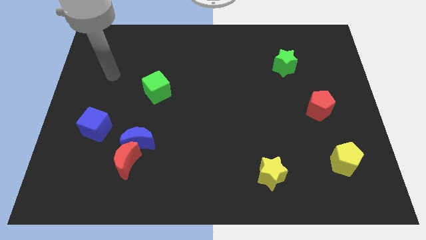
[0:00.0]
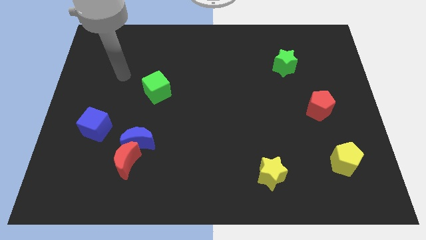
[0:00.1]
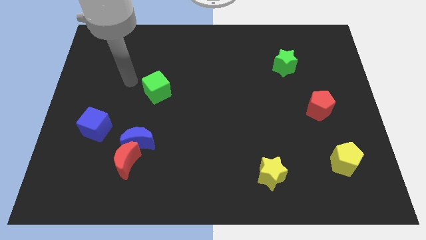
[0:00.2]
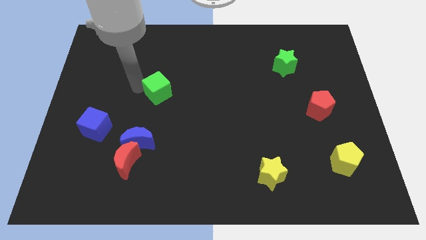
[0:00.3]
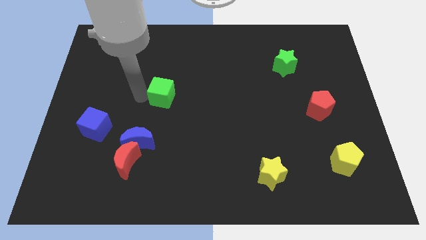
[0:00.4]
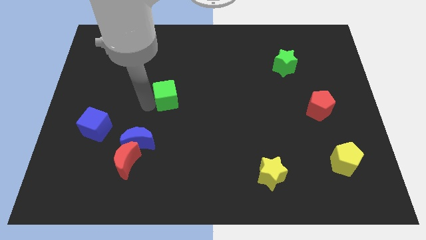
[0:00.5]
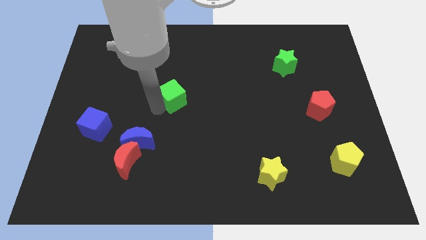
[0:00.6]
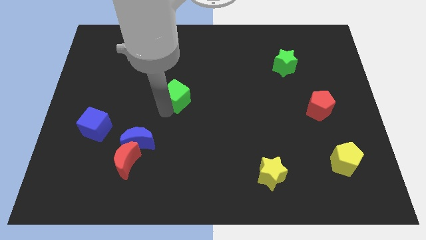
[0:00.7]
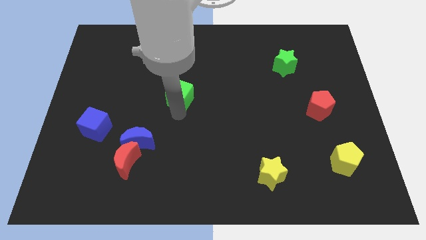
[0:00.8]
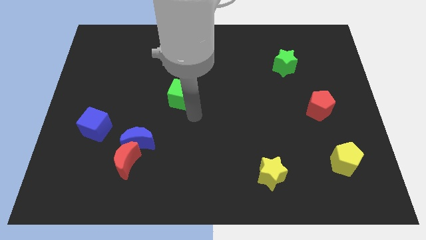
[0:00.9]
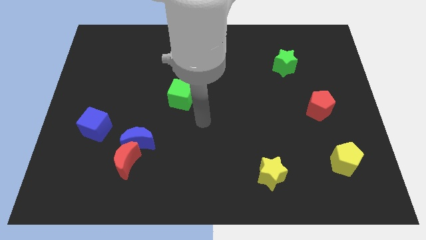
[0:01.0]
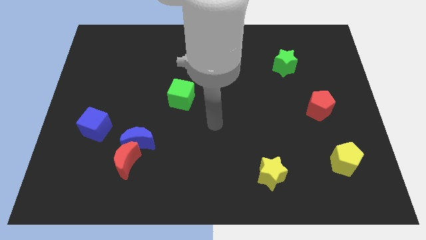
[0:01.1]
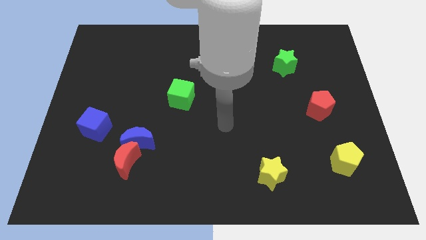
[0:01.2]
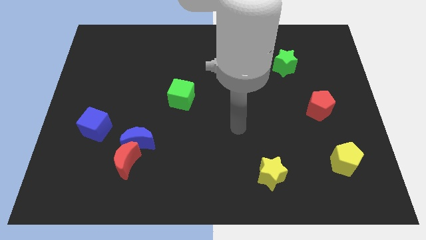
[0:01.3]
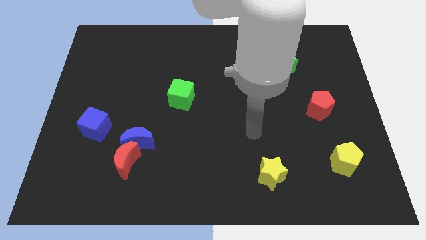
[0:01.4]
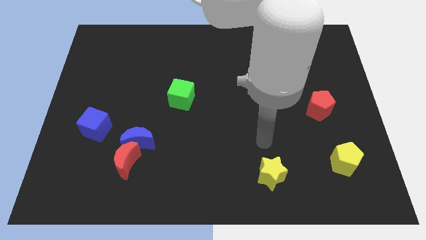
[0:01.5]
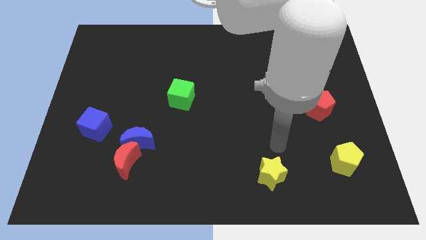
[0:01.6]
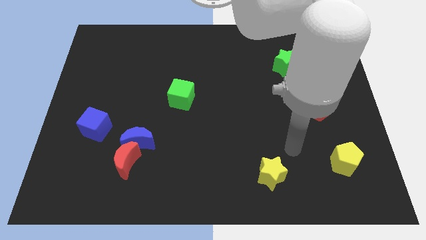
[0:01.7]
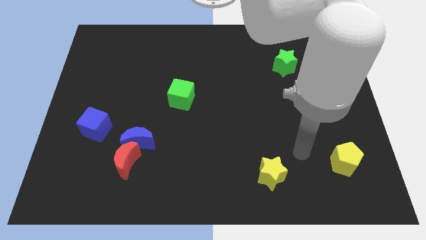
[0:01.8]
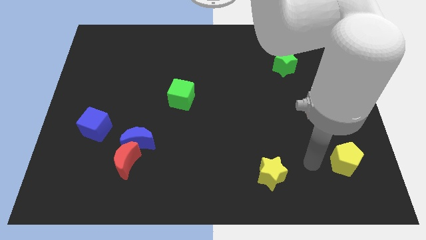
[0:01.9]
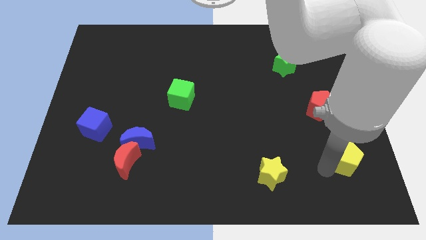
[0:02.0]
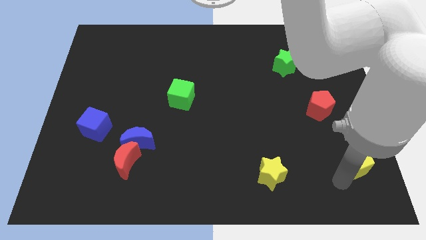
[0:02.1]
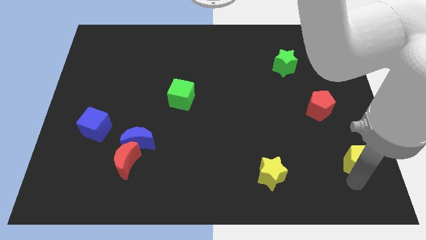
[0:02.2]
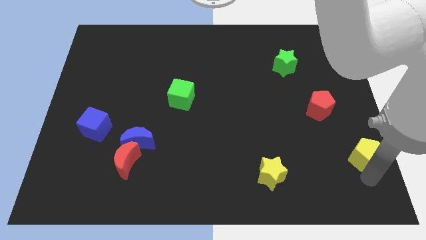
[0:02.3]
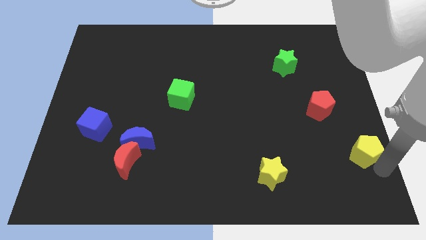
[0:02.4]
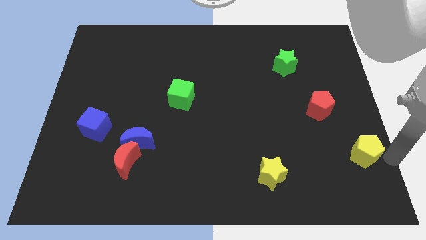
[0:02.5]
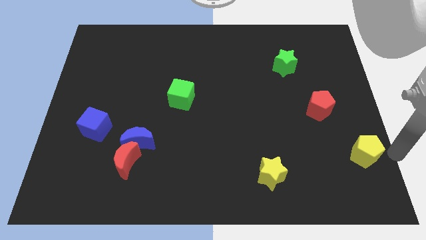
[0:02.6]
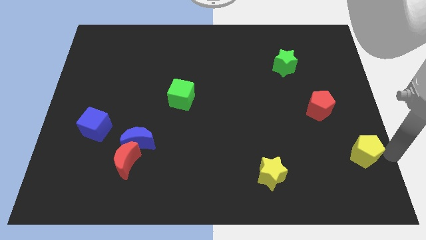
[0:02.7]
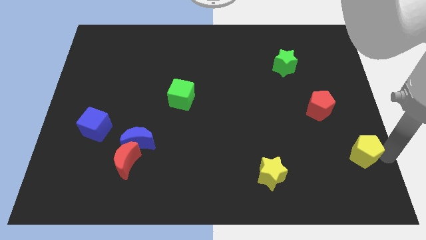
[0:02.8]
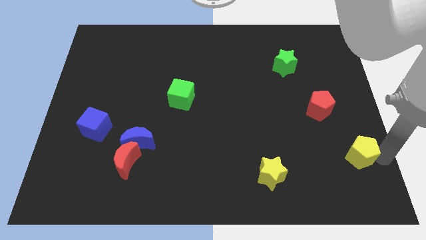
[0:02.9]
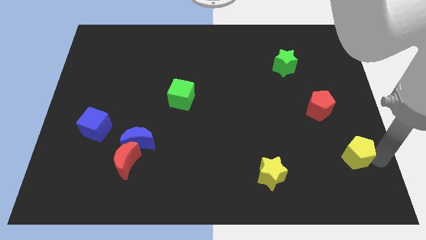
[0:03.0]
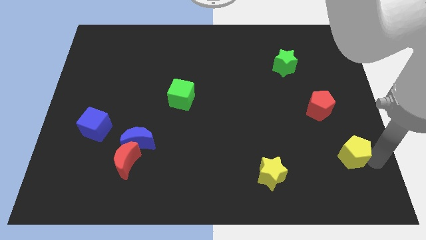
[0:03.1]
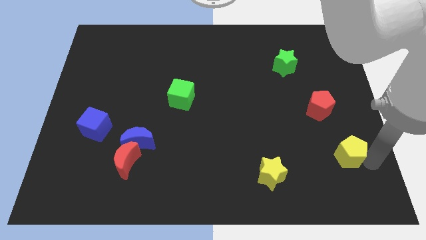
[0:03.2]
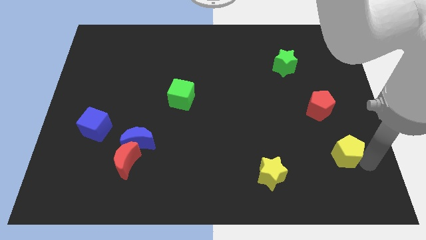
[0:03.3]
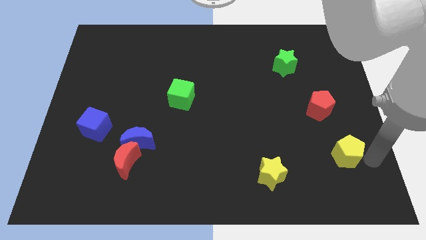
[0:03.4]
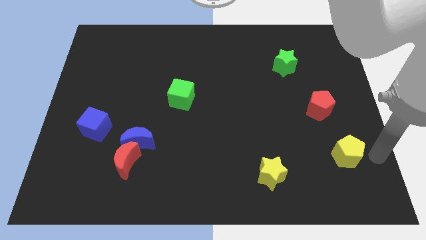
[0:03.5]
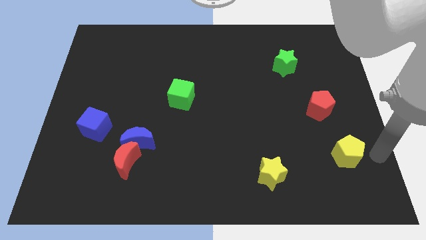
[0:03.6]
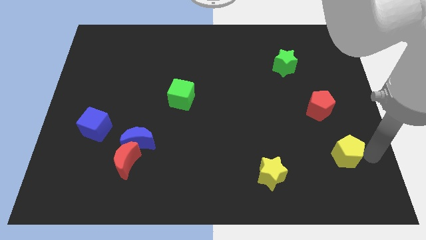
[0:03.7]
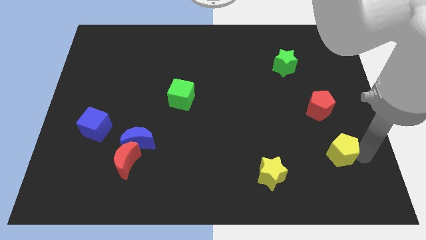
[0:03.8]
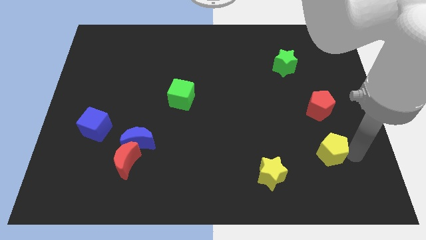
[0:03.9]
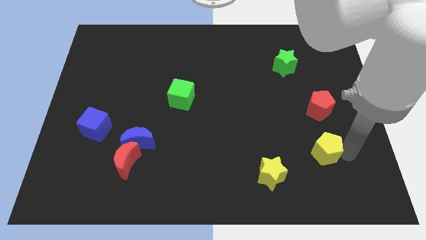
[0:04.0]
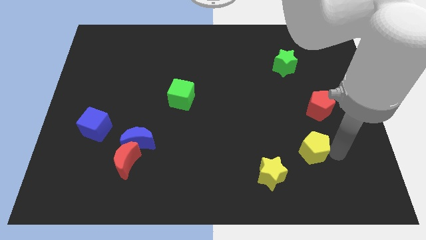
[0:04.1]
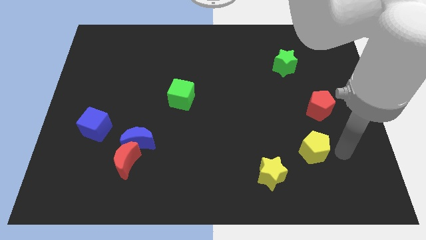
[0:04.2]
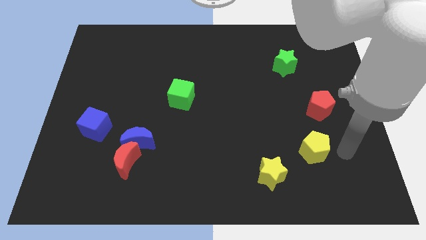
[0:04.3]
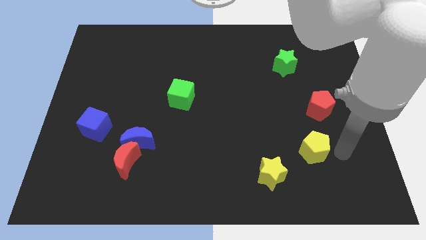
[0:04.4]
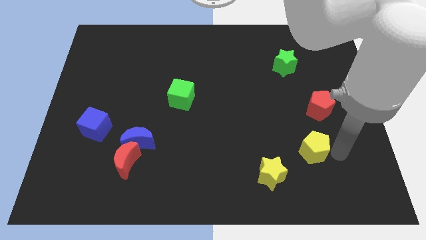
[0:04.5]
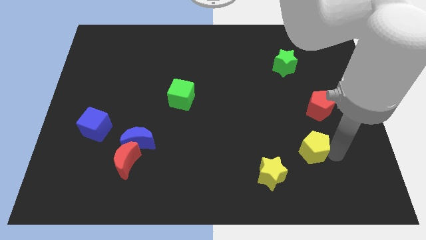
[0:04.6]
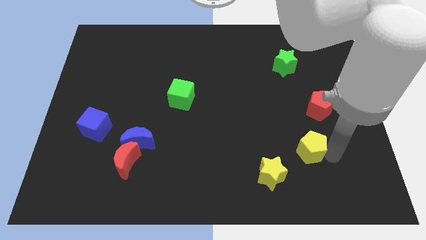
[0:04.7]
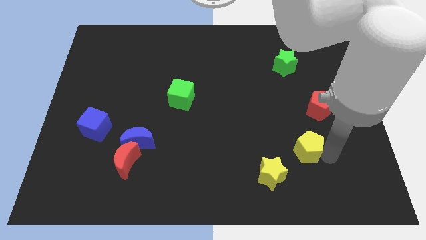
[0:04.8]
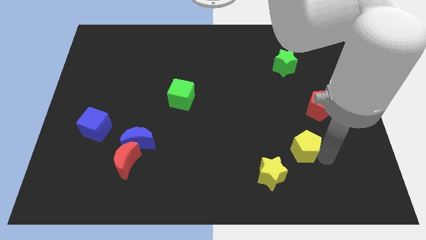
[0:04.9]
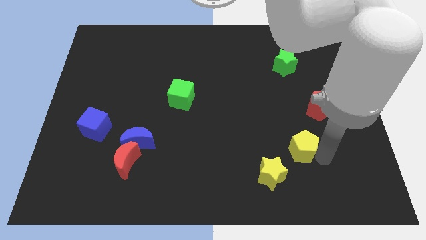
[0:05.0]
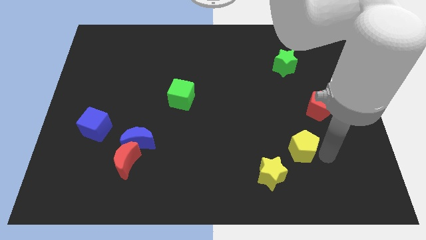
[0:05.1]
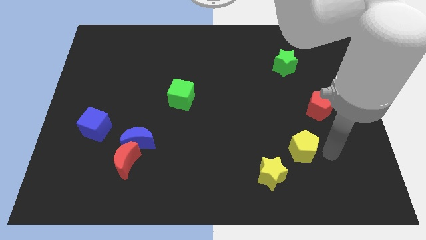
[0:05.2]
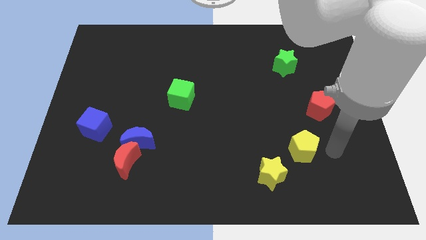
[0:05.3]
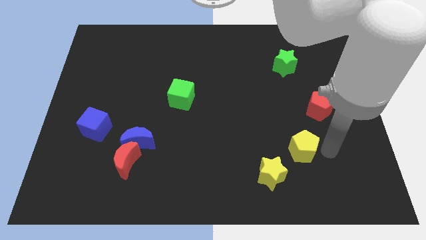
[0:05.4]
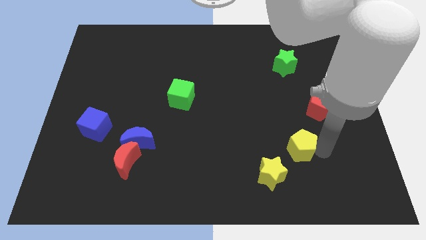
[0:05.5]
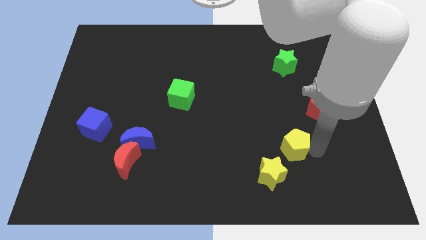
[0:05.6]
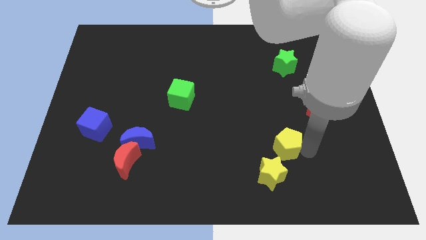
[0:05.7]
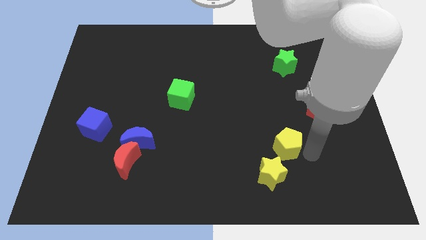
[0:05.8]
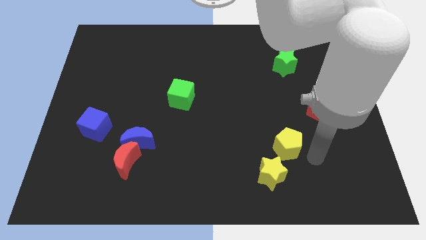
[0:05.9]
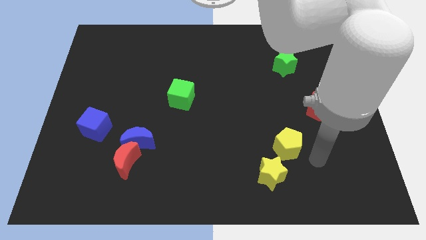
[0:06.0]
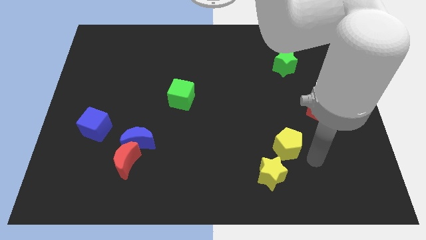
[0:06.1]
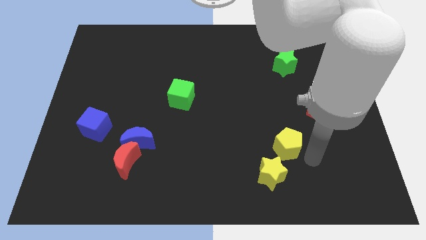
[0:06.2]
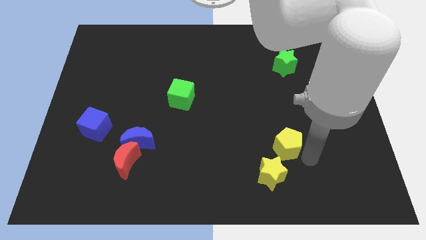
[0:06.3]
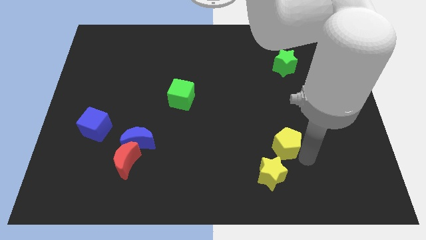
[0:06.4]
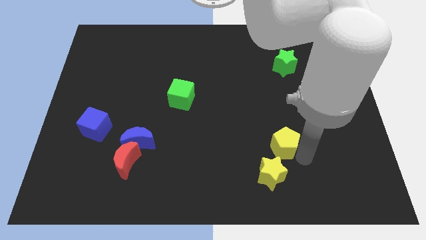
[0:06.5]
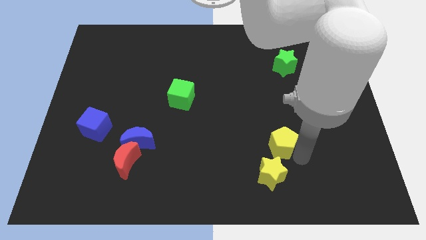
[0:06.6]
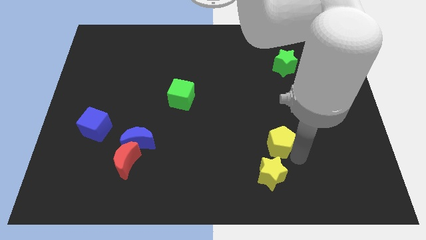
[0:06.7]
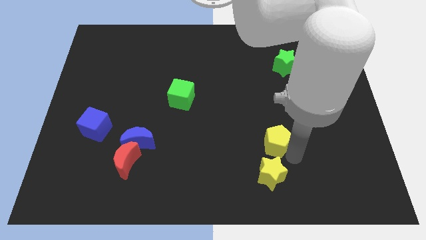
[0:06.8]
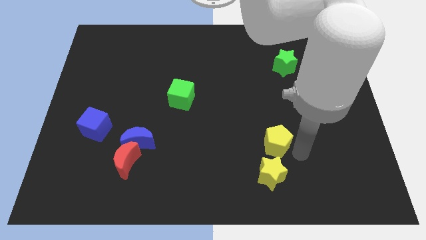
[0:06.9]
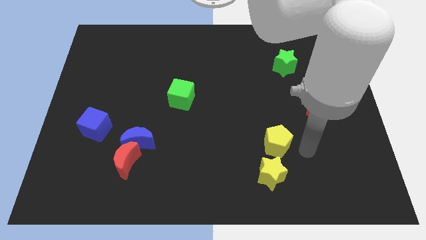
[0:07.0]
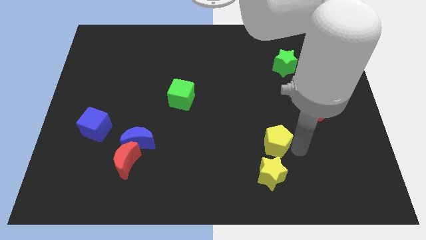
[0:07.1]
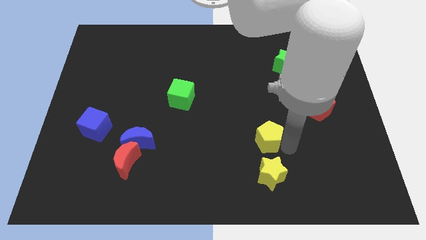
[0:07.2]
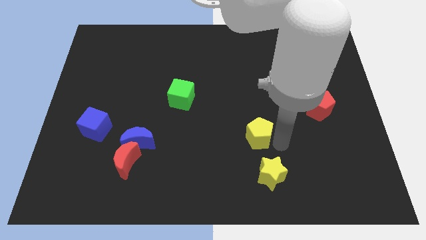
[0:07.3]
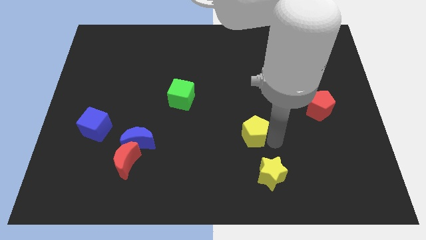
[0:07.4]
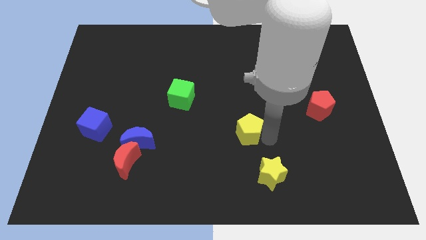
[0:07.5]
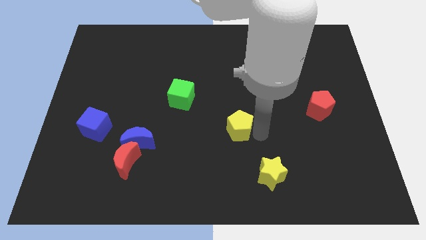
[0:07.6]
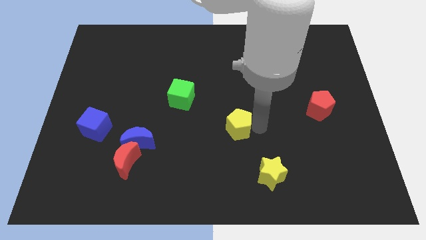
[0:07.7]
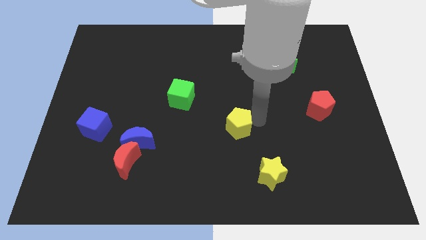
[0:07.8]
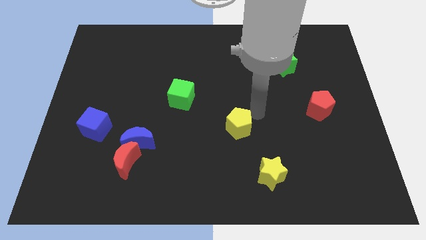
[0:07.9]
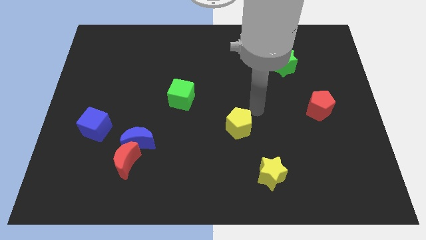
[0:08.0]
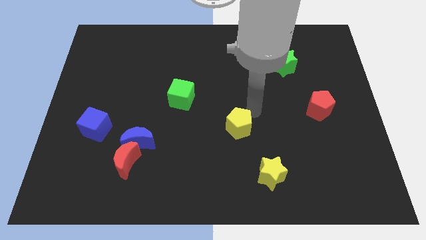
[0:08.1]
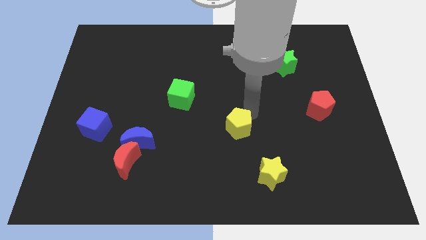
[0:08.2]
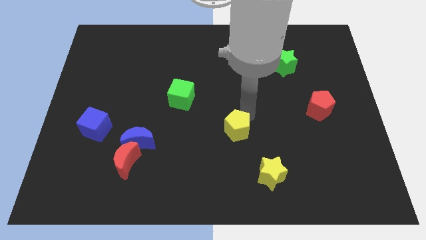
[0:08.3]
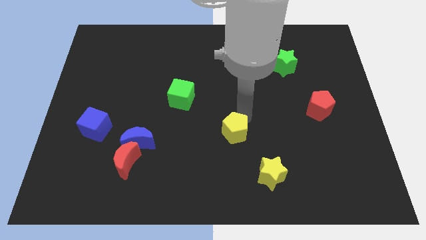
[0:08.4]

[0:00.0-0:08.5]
slide the yellow pentagon to the left
